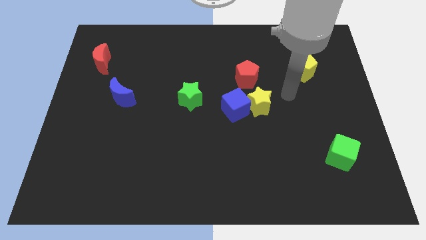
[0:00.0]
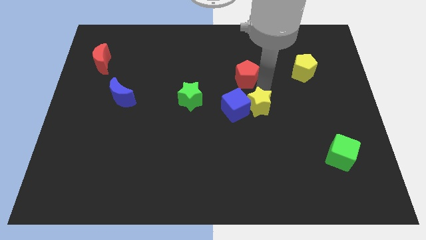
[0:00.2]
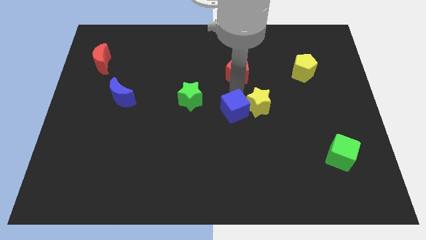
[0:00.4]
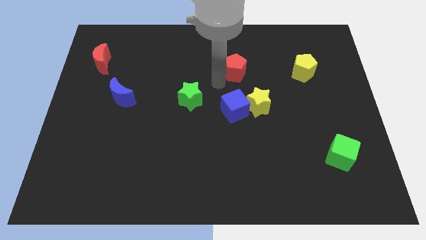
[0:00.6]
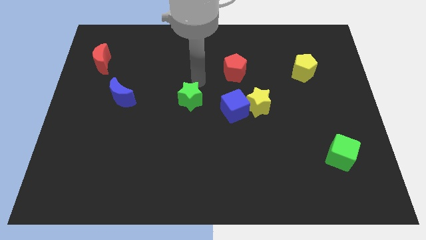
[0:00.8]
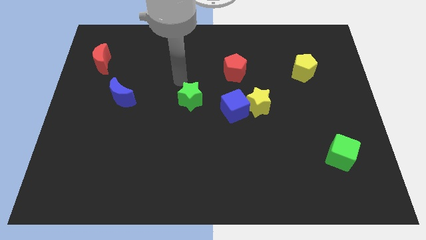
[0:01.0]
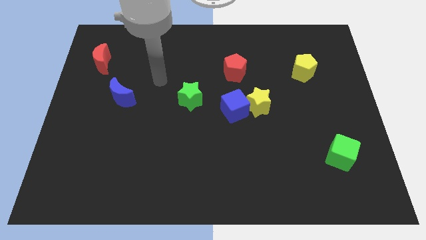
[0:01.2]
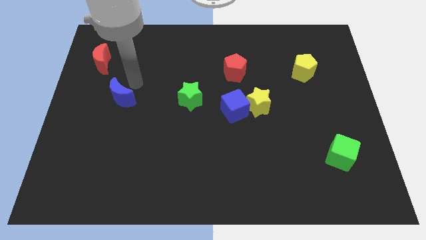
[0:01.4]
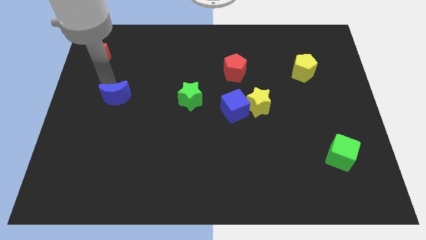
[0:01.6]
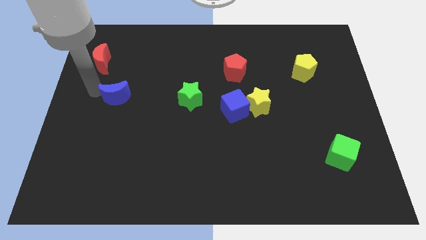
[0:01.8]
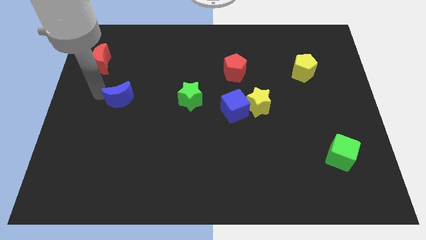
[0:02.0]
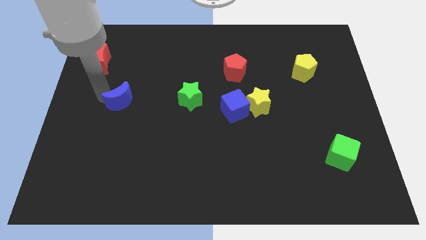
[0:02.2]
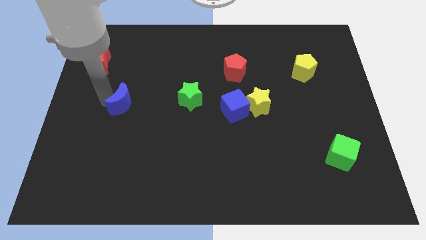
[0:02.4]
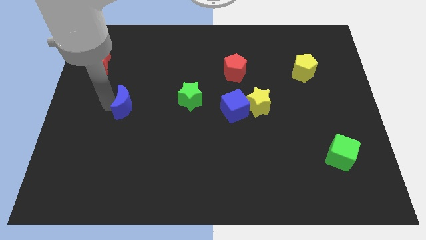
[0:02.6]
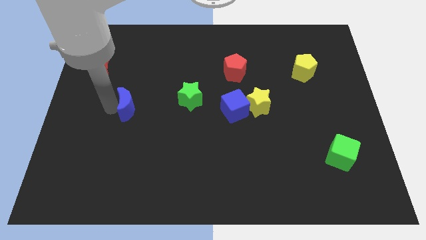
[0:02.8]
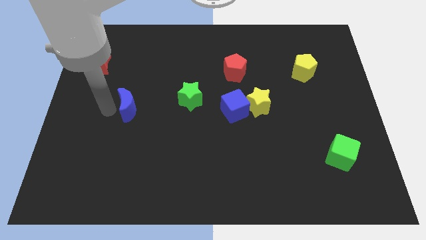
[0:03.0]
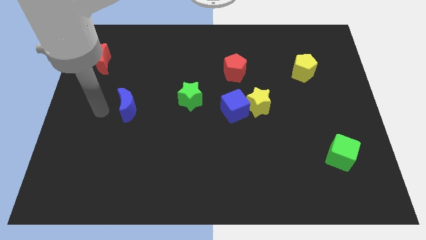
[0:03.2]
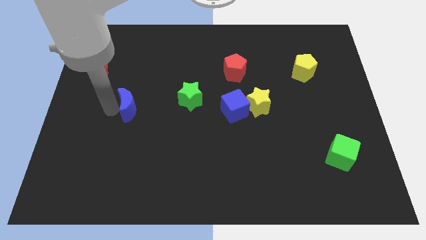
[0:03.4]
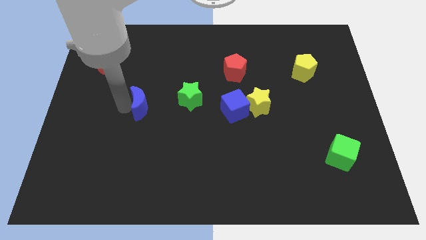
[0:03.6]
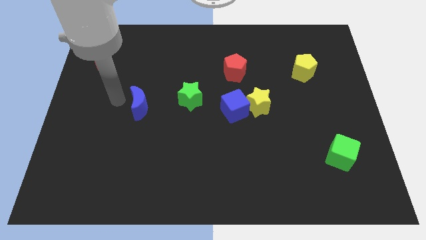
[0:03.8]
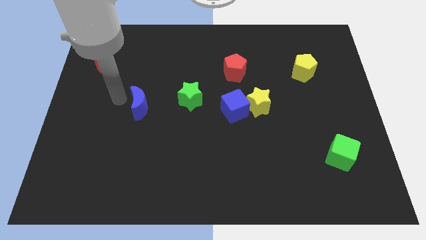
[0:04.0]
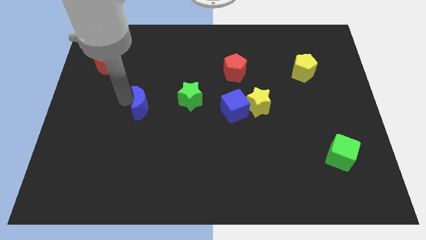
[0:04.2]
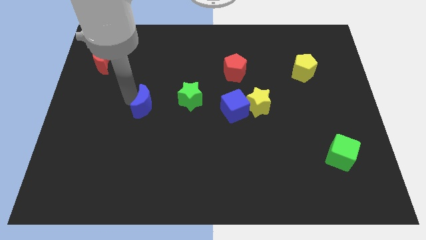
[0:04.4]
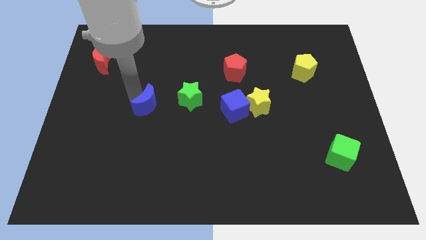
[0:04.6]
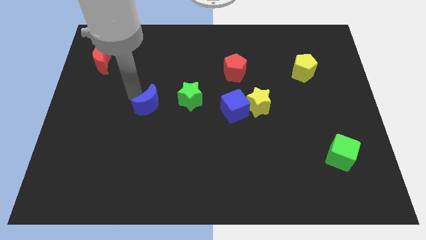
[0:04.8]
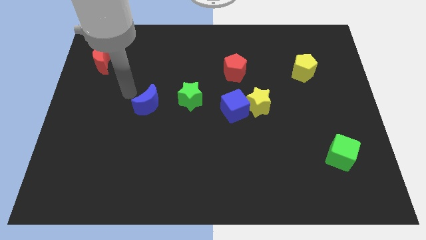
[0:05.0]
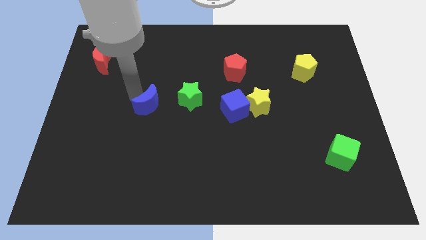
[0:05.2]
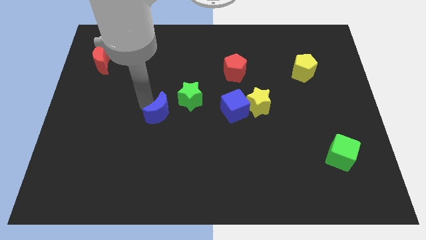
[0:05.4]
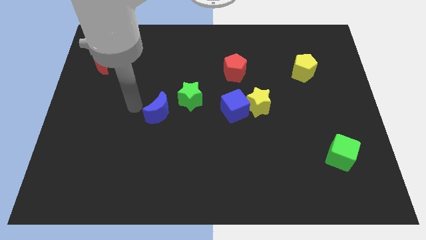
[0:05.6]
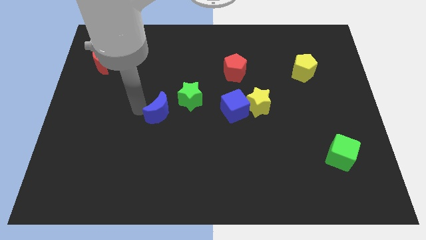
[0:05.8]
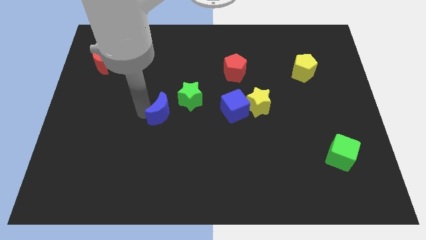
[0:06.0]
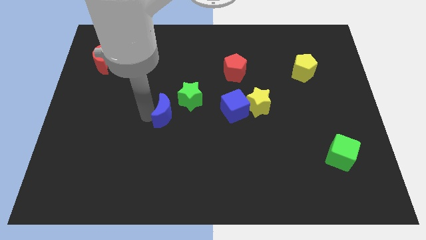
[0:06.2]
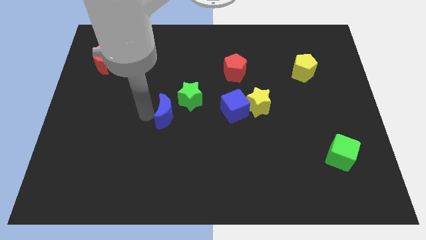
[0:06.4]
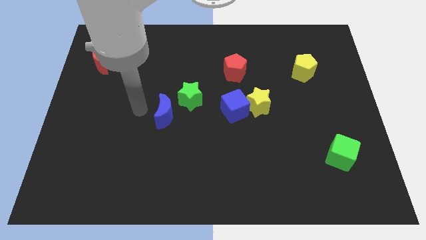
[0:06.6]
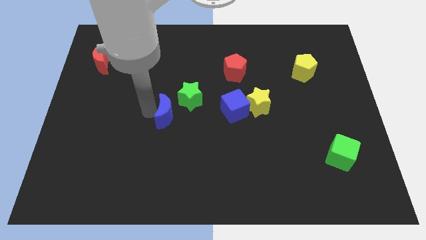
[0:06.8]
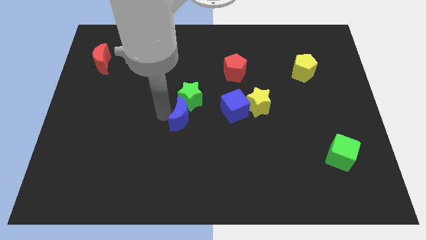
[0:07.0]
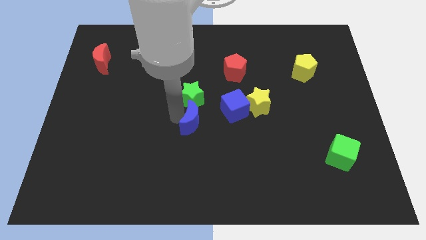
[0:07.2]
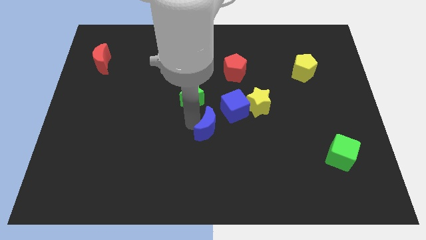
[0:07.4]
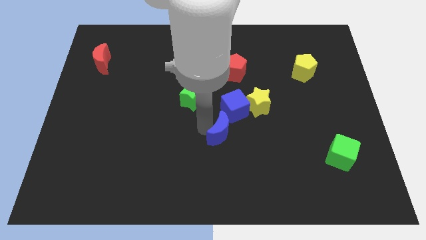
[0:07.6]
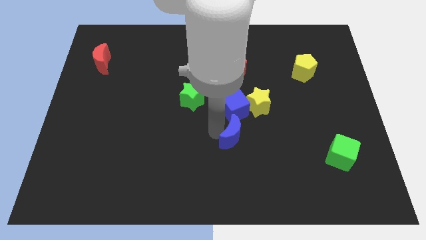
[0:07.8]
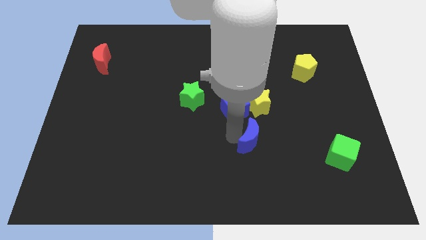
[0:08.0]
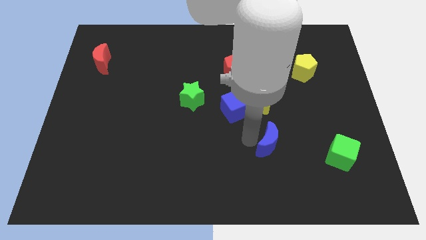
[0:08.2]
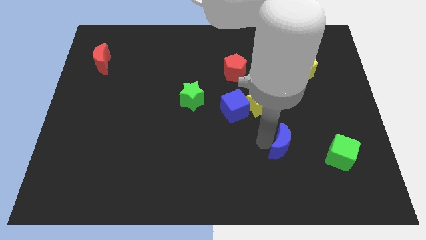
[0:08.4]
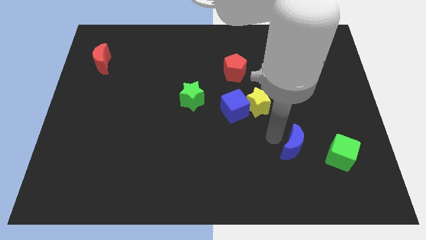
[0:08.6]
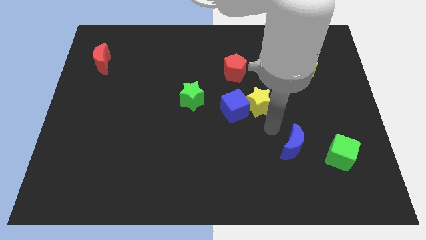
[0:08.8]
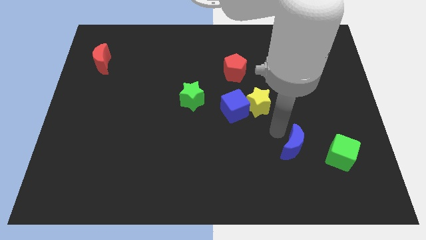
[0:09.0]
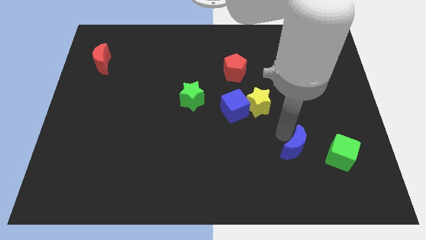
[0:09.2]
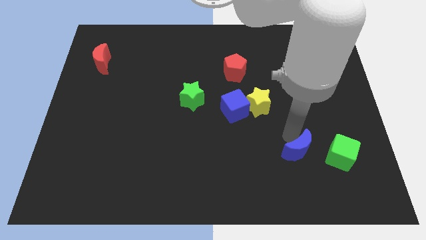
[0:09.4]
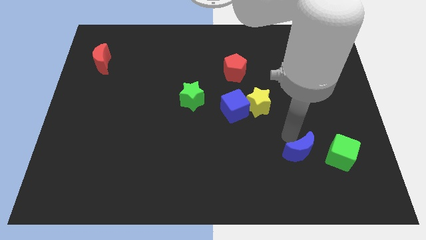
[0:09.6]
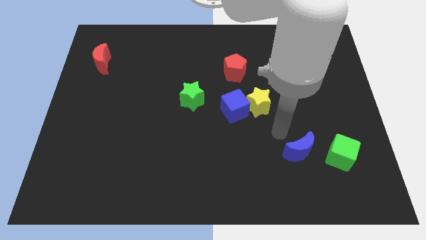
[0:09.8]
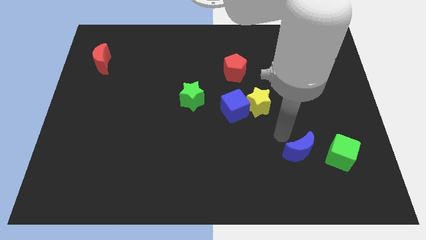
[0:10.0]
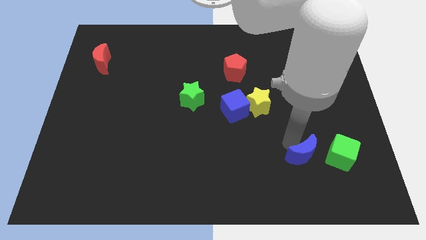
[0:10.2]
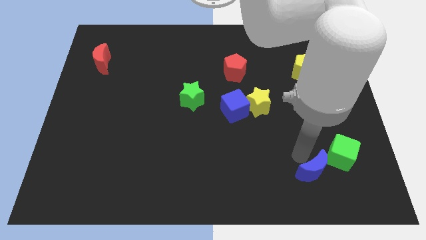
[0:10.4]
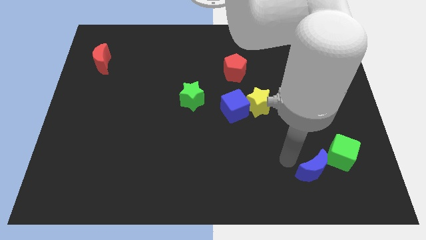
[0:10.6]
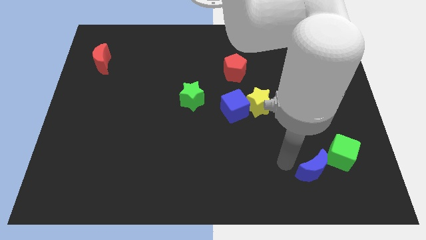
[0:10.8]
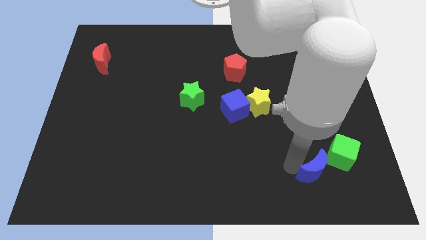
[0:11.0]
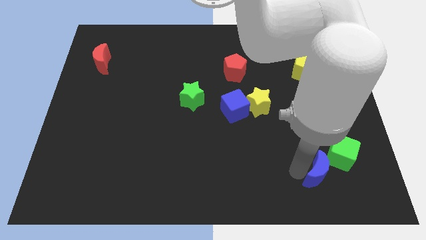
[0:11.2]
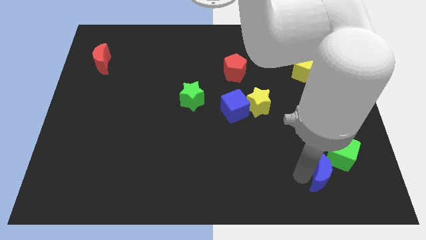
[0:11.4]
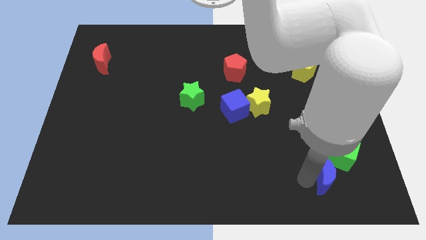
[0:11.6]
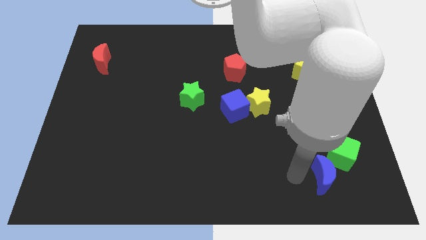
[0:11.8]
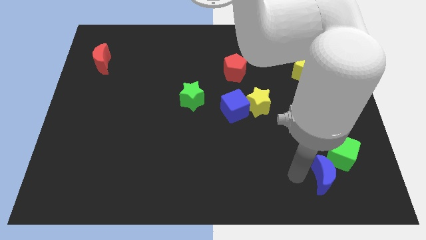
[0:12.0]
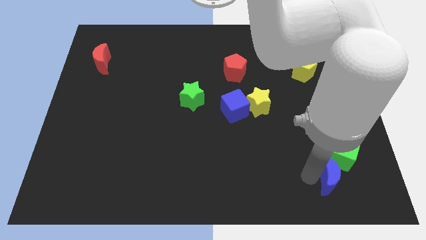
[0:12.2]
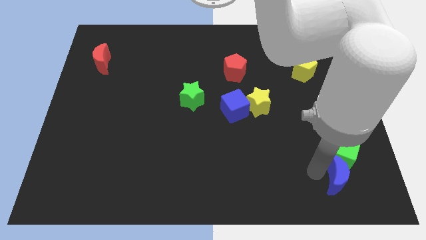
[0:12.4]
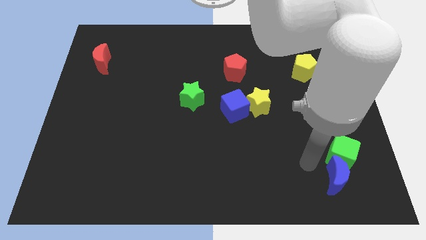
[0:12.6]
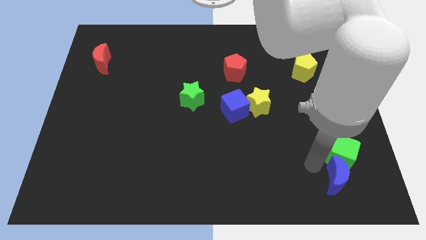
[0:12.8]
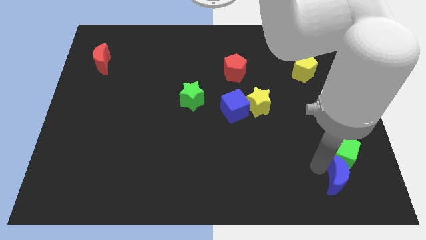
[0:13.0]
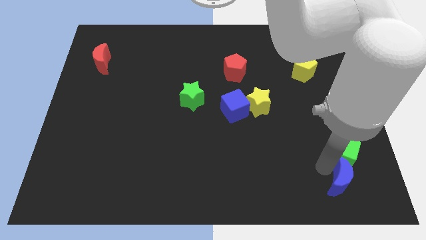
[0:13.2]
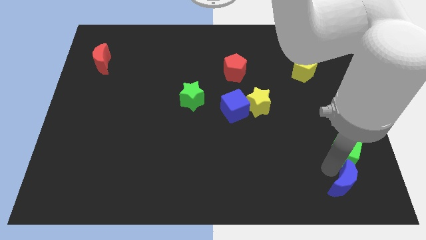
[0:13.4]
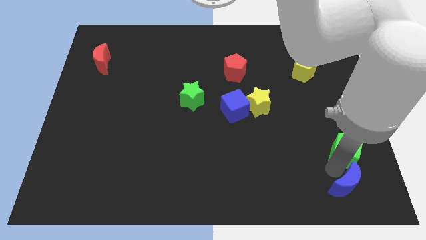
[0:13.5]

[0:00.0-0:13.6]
push the blue moon to the bottom right
